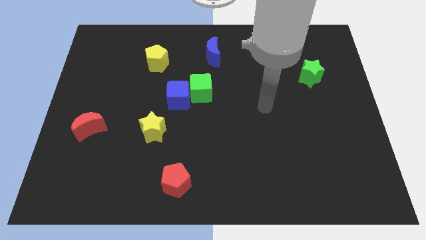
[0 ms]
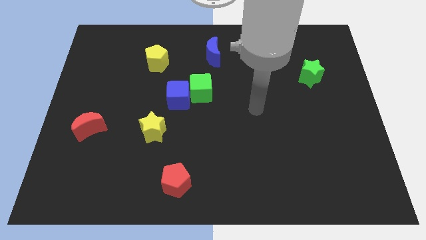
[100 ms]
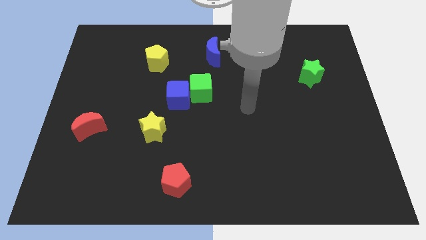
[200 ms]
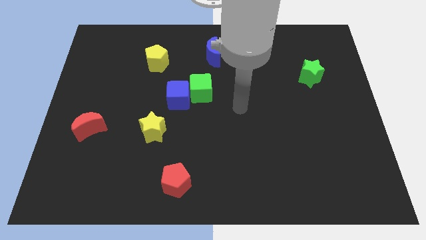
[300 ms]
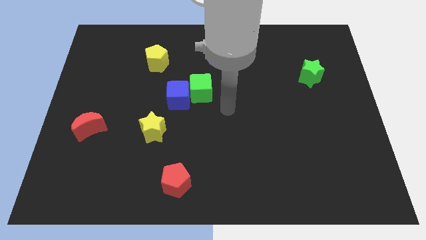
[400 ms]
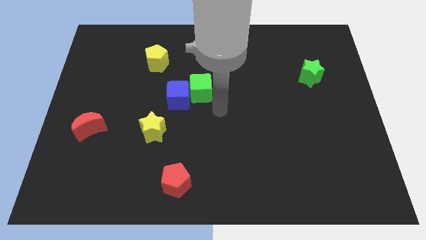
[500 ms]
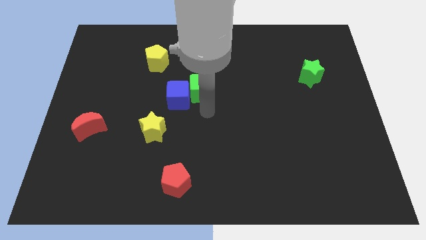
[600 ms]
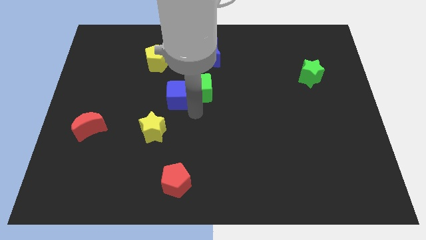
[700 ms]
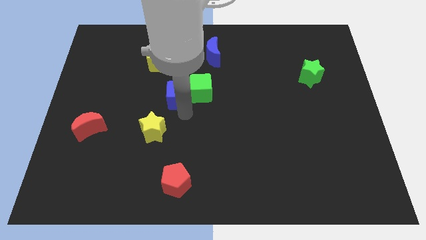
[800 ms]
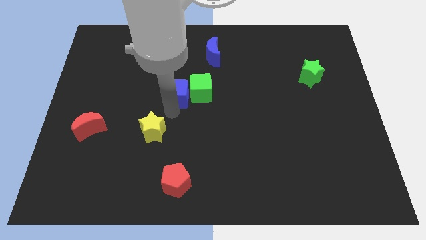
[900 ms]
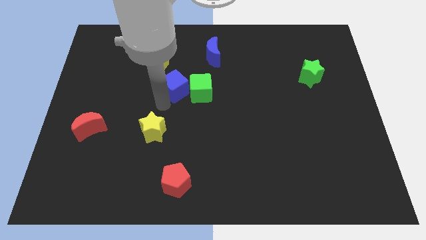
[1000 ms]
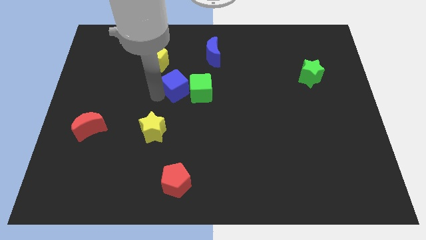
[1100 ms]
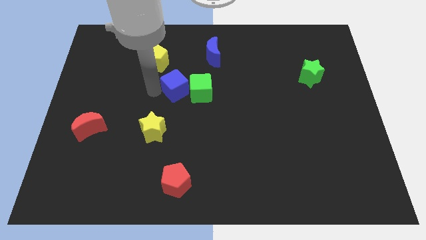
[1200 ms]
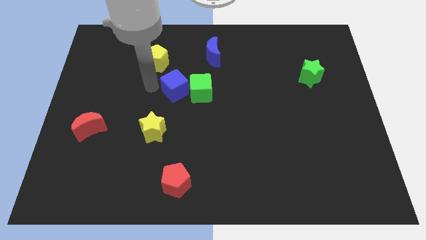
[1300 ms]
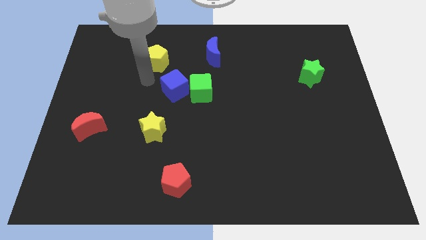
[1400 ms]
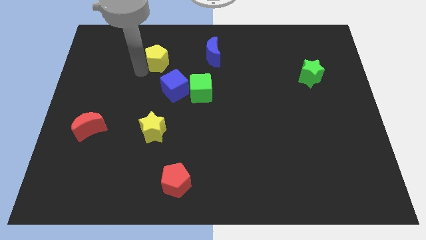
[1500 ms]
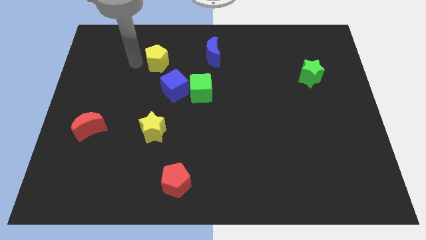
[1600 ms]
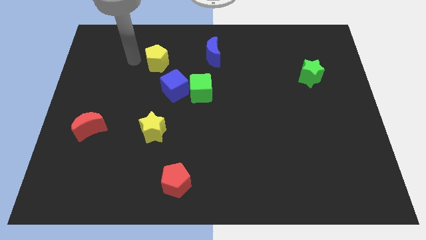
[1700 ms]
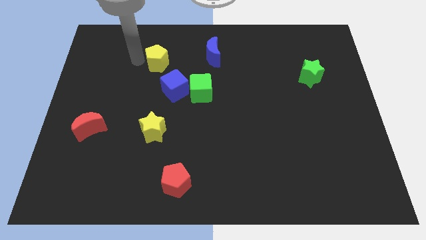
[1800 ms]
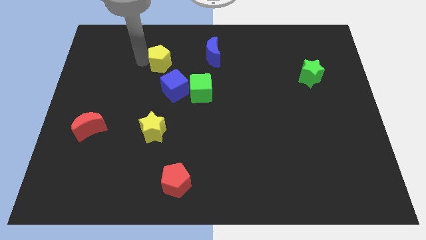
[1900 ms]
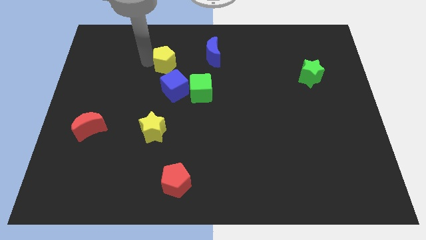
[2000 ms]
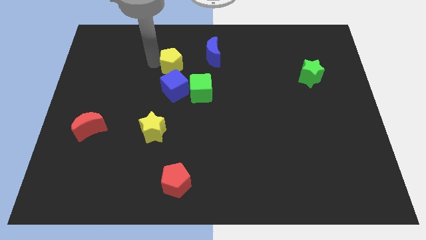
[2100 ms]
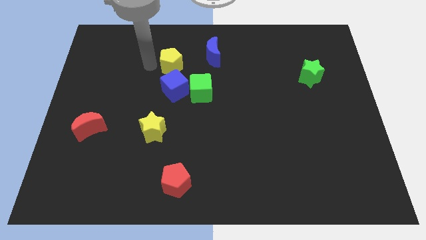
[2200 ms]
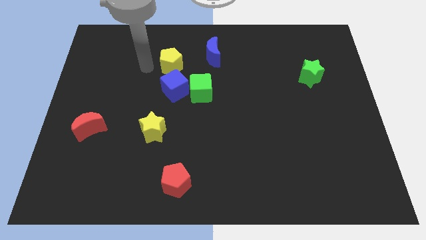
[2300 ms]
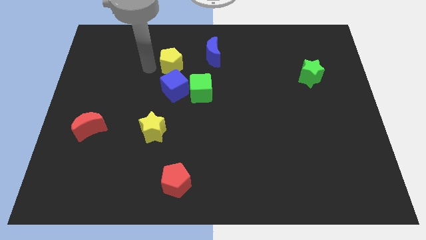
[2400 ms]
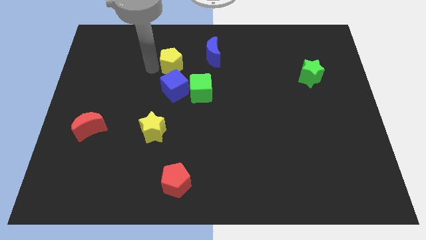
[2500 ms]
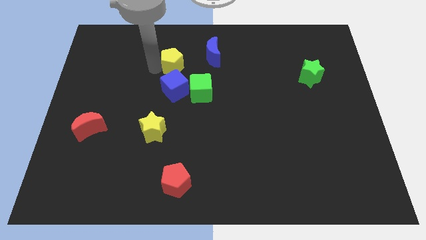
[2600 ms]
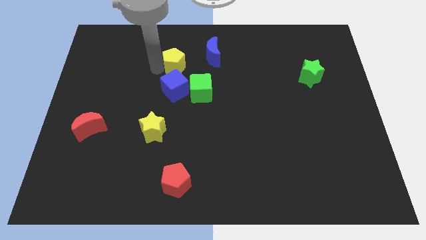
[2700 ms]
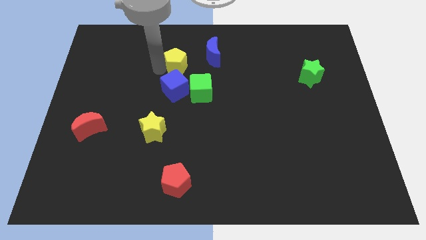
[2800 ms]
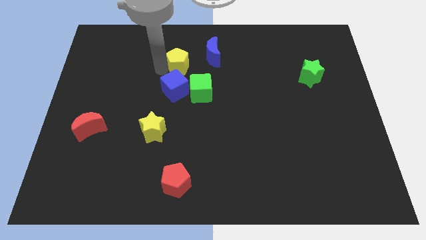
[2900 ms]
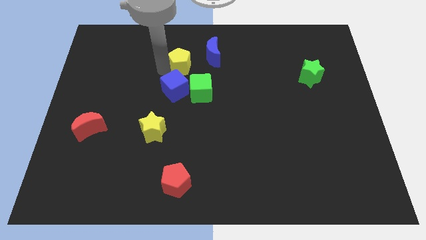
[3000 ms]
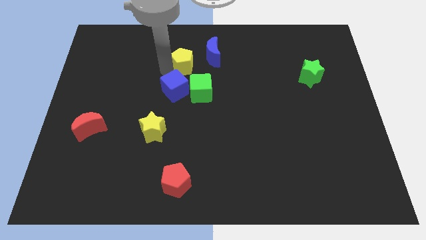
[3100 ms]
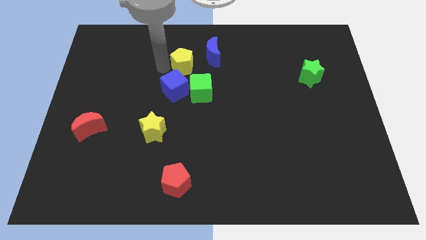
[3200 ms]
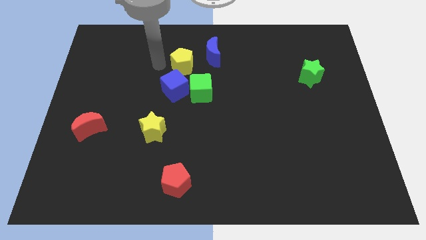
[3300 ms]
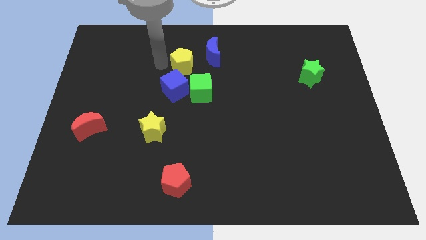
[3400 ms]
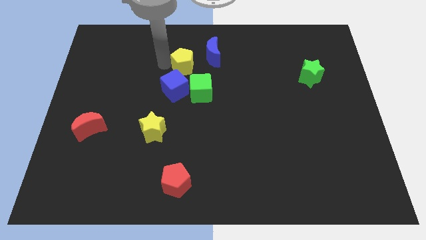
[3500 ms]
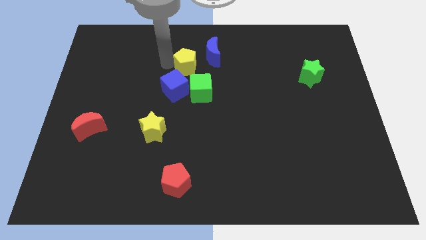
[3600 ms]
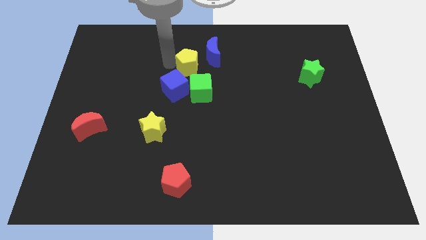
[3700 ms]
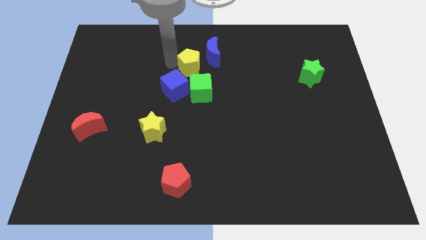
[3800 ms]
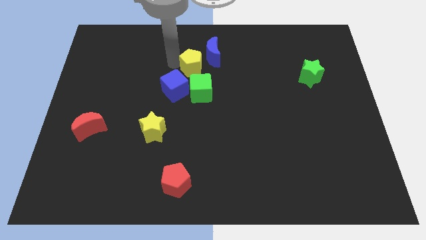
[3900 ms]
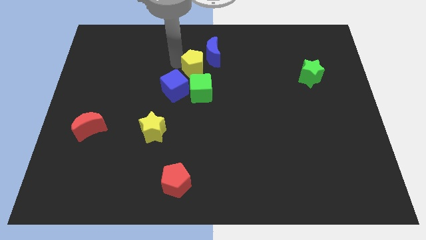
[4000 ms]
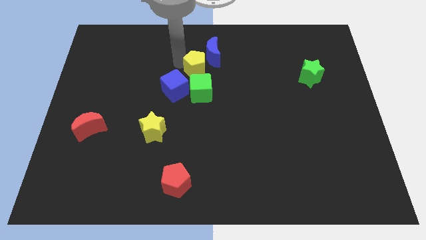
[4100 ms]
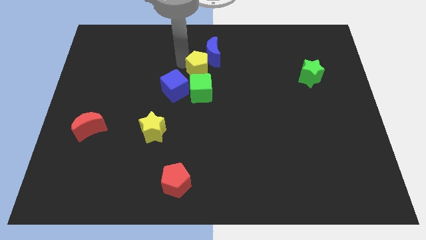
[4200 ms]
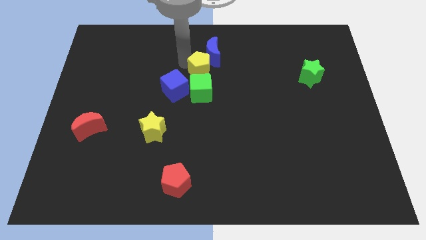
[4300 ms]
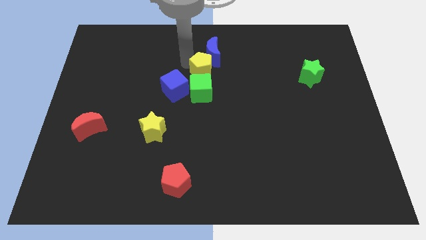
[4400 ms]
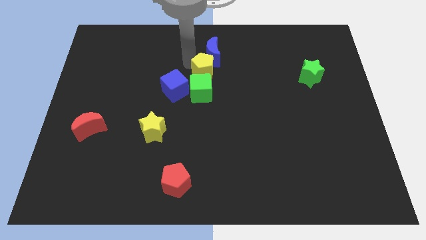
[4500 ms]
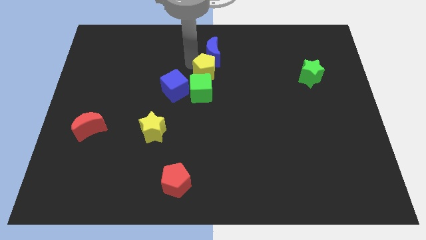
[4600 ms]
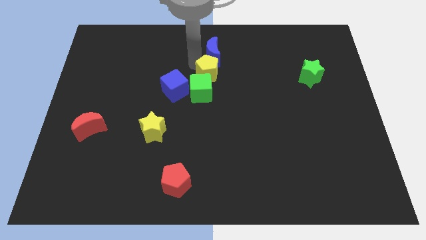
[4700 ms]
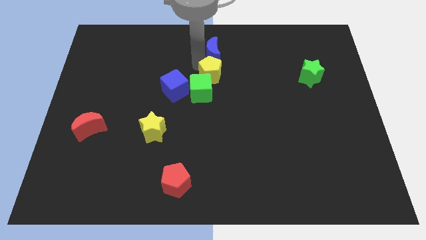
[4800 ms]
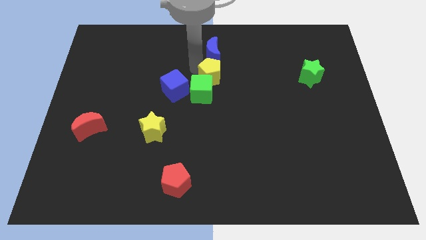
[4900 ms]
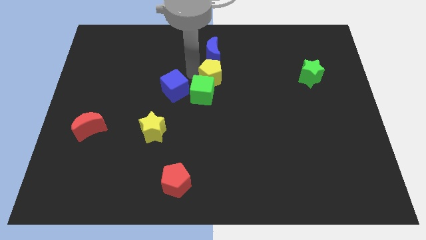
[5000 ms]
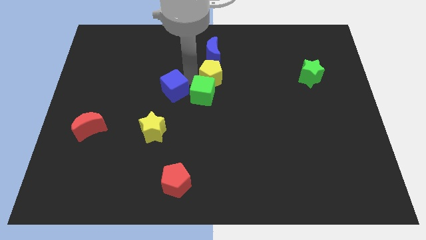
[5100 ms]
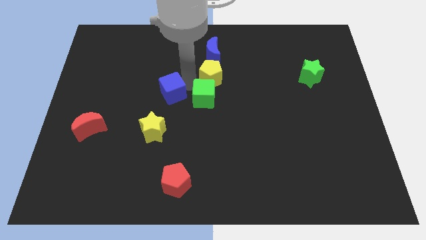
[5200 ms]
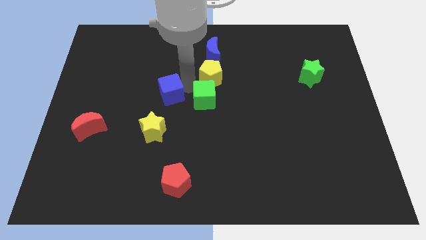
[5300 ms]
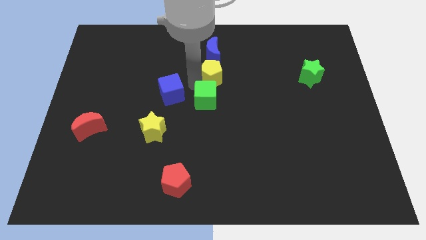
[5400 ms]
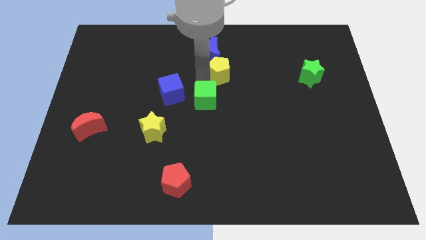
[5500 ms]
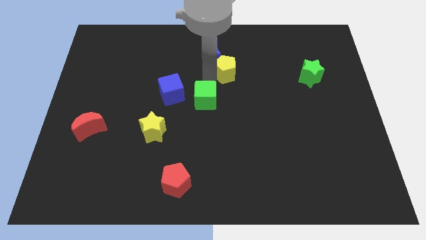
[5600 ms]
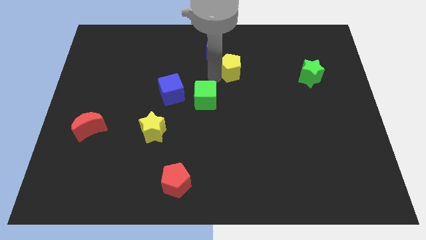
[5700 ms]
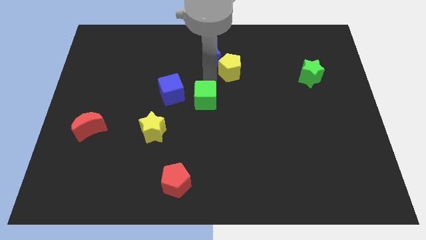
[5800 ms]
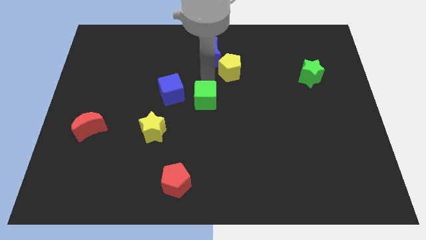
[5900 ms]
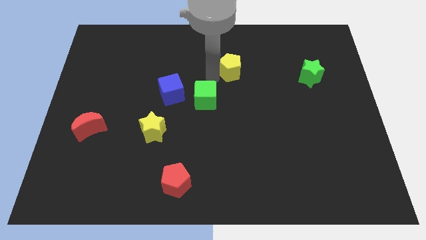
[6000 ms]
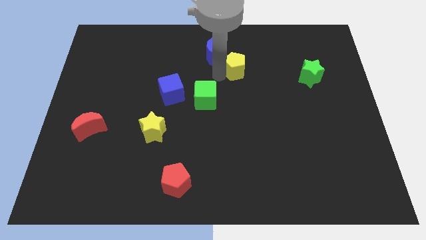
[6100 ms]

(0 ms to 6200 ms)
push the yellow pentagon to the right

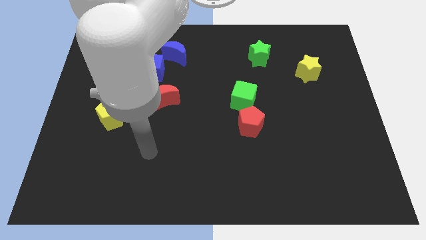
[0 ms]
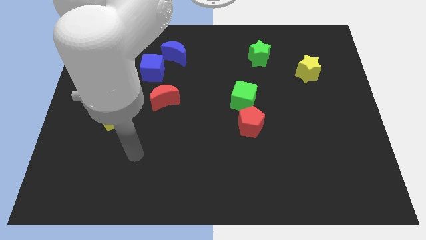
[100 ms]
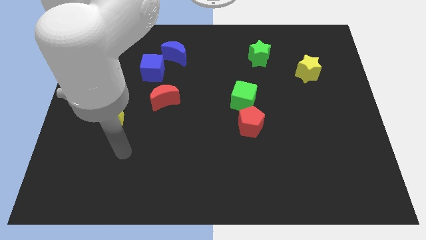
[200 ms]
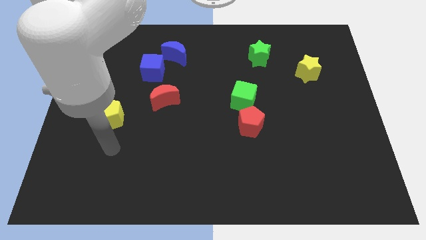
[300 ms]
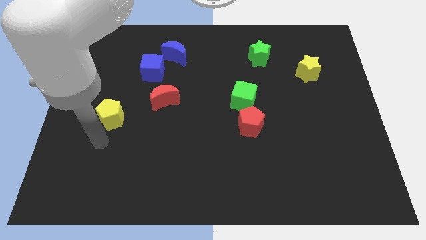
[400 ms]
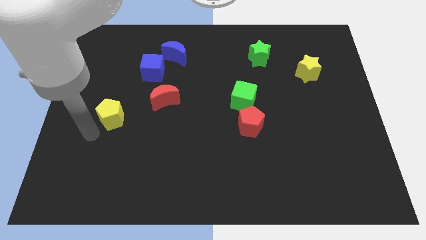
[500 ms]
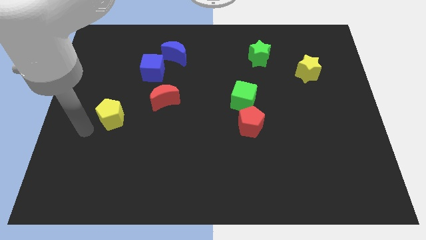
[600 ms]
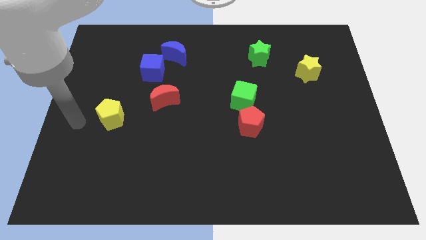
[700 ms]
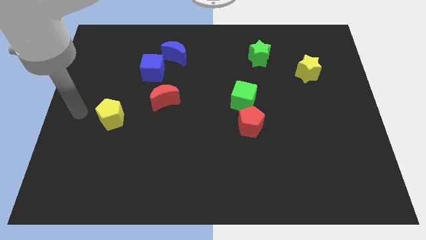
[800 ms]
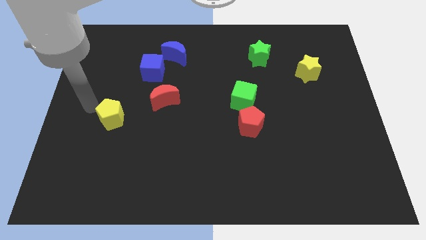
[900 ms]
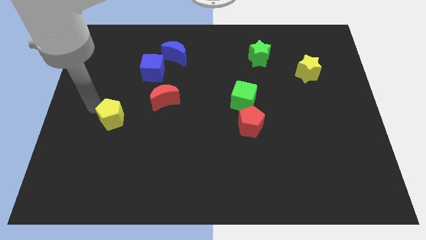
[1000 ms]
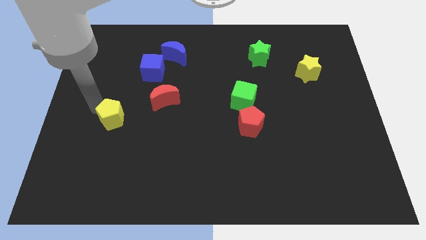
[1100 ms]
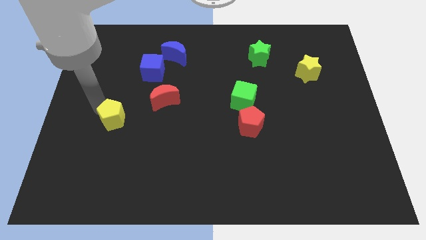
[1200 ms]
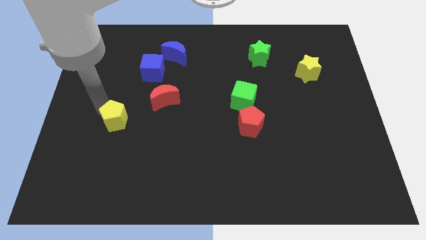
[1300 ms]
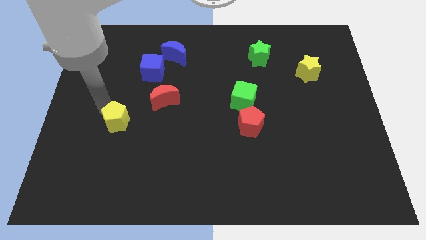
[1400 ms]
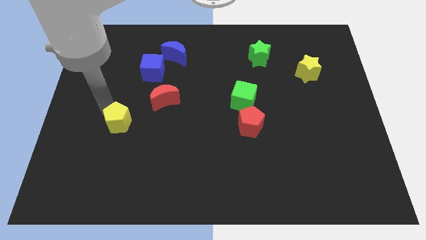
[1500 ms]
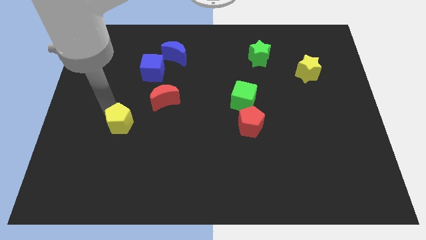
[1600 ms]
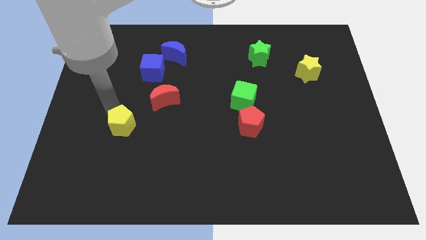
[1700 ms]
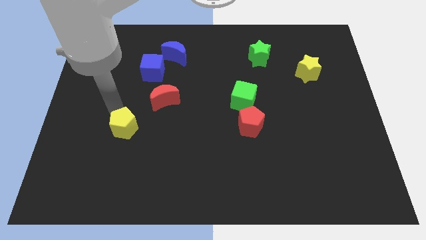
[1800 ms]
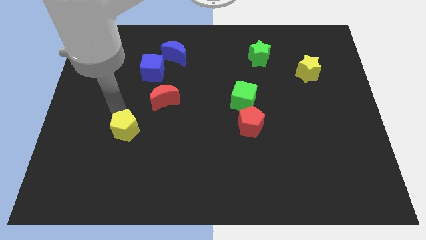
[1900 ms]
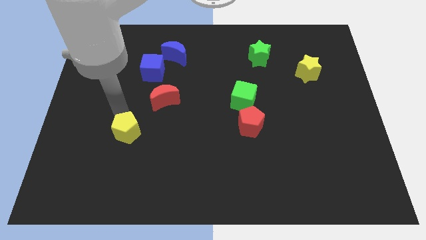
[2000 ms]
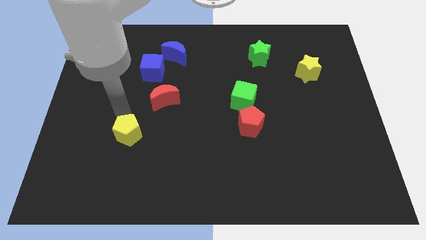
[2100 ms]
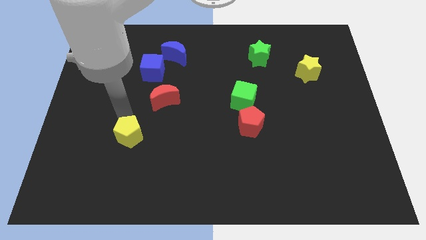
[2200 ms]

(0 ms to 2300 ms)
push the yellow pentagon a little bit down and right
